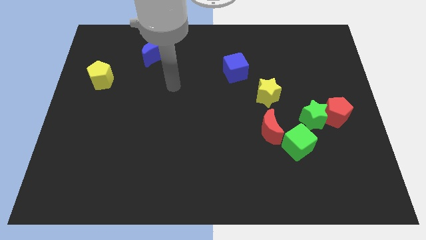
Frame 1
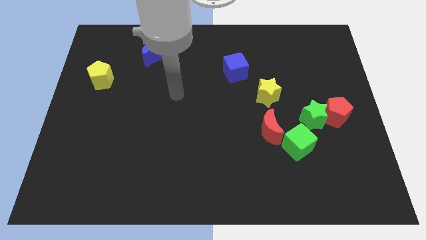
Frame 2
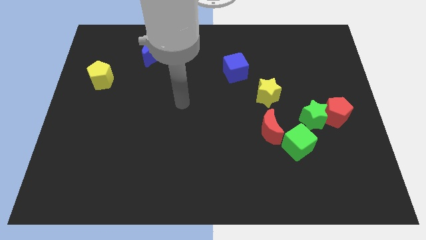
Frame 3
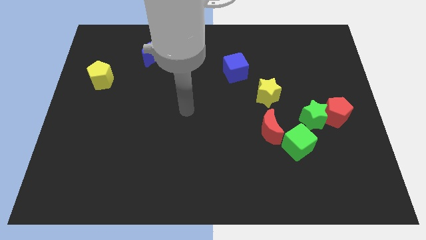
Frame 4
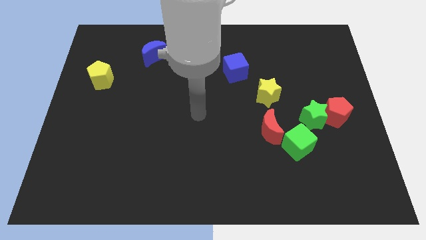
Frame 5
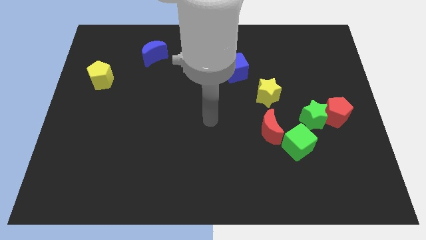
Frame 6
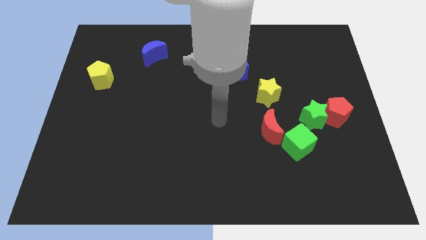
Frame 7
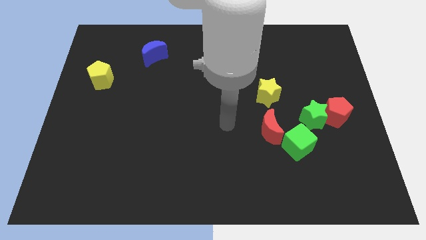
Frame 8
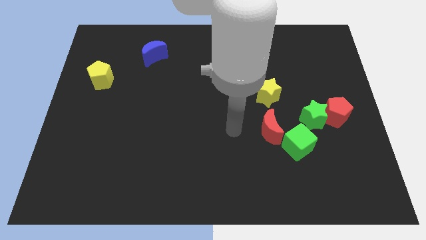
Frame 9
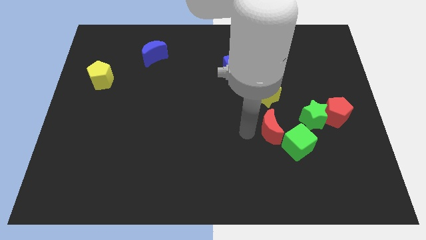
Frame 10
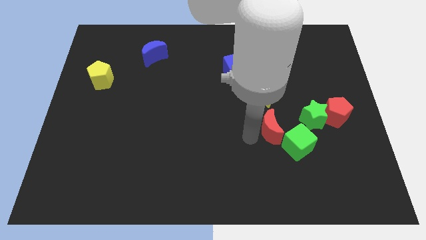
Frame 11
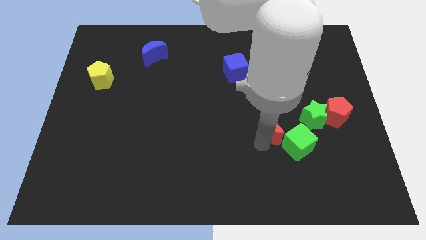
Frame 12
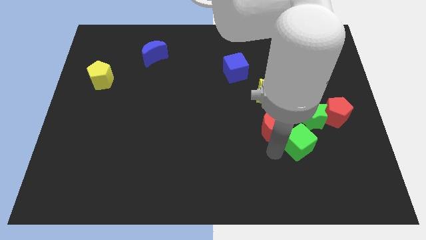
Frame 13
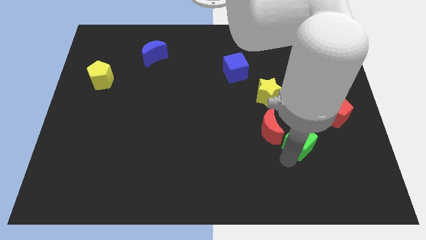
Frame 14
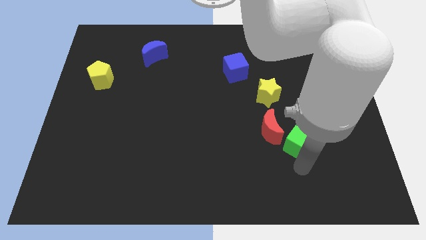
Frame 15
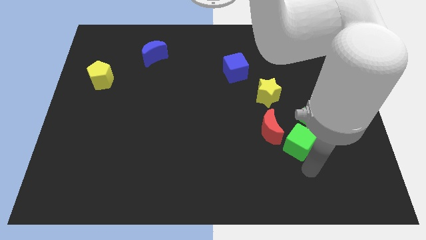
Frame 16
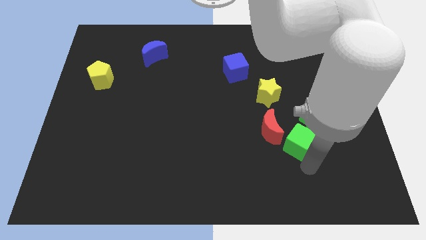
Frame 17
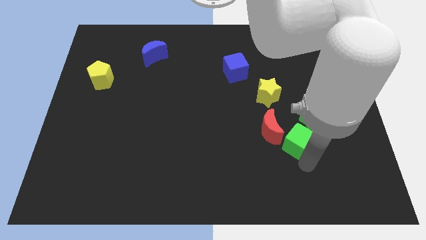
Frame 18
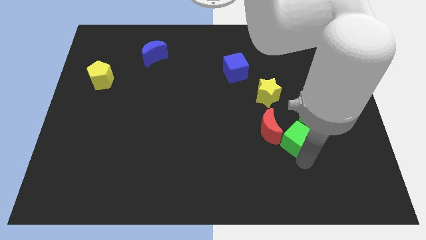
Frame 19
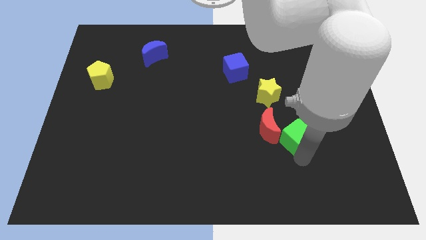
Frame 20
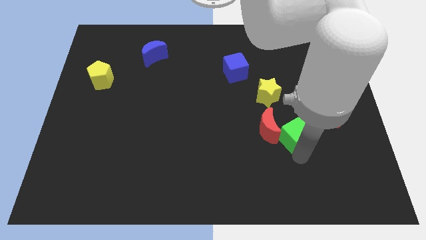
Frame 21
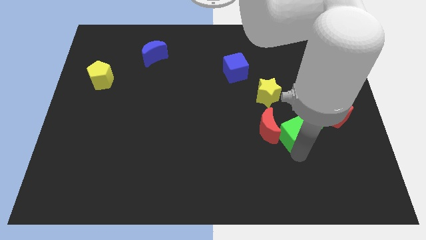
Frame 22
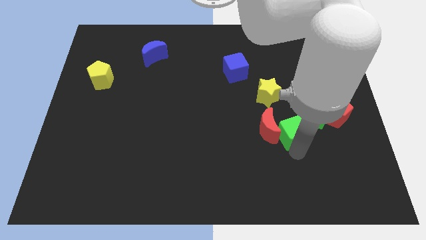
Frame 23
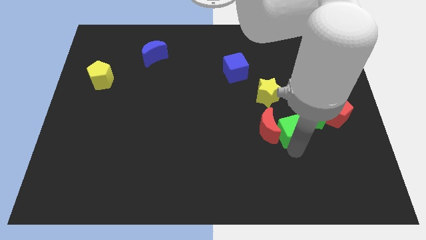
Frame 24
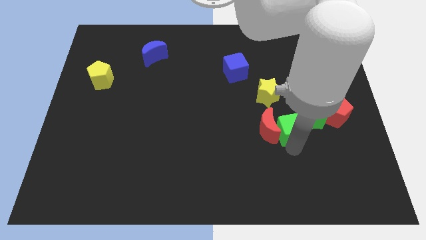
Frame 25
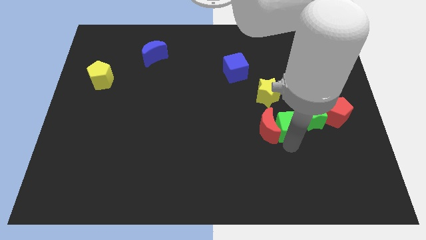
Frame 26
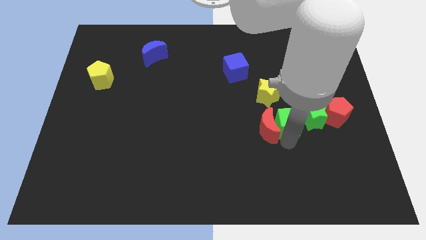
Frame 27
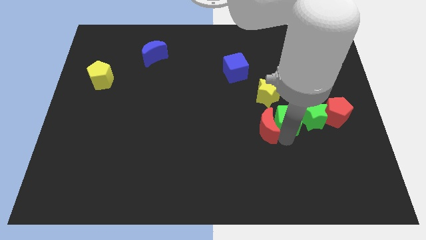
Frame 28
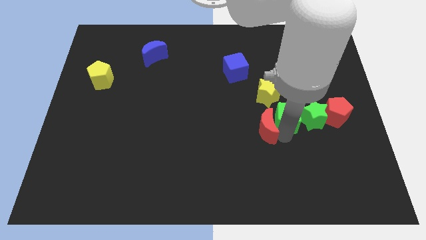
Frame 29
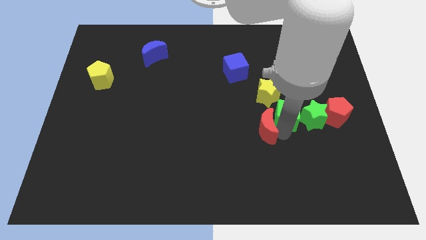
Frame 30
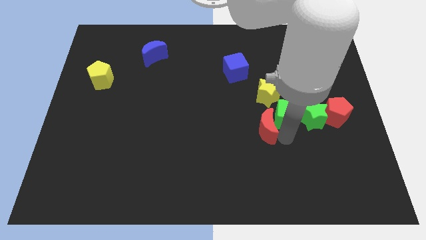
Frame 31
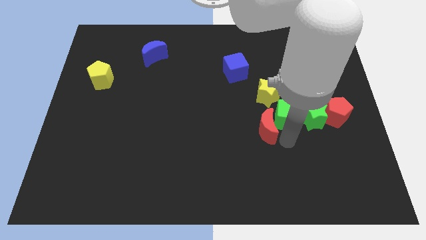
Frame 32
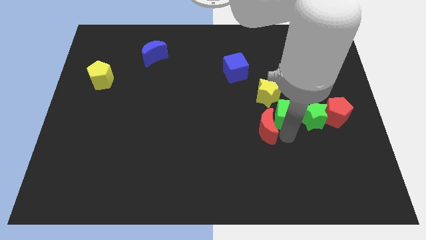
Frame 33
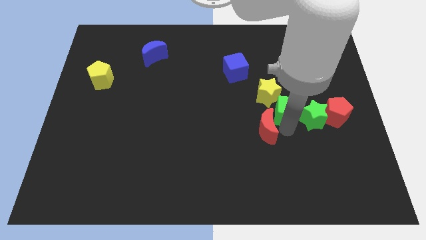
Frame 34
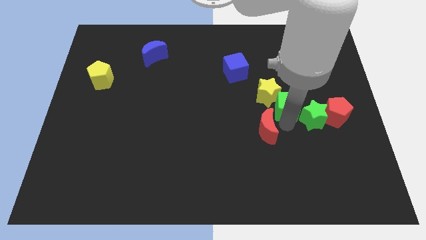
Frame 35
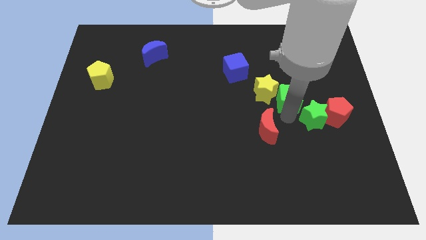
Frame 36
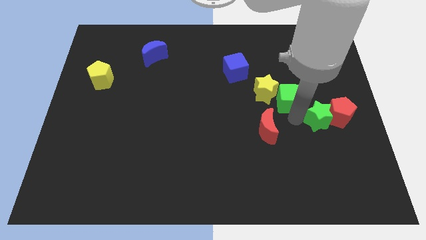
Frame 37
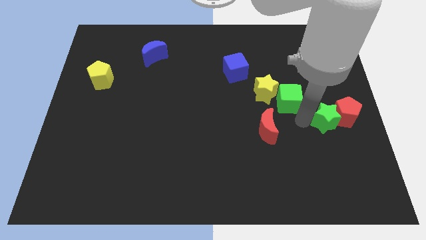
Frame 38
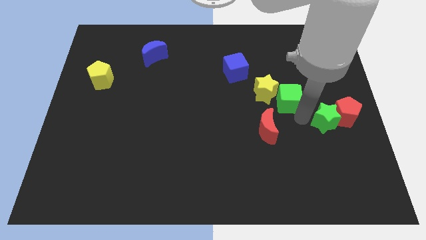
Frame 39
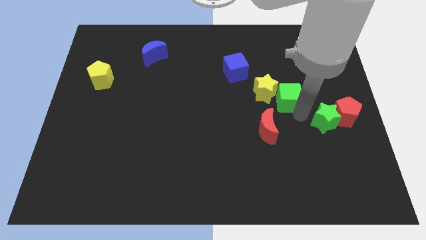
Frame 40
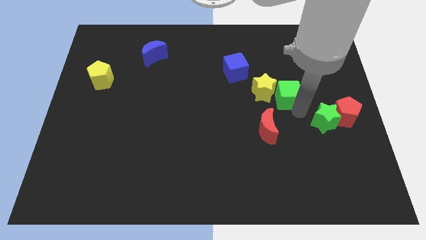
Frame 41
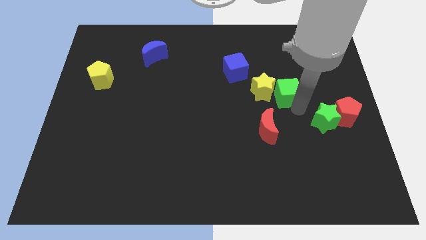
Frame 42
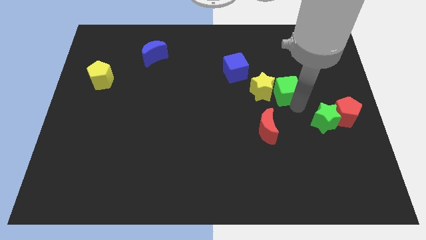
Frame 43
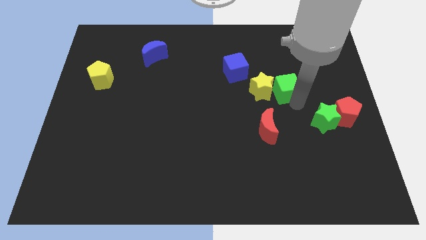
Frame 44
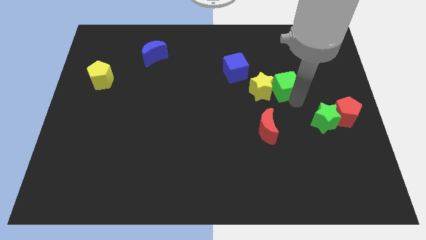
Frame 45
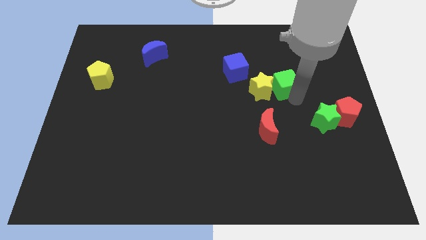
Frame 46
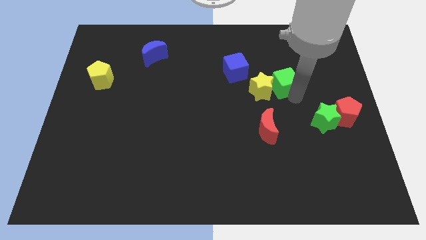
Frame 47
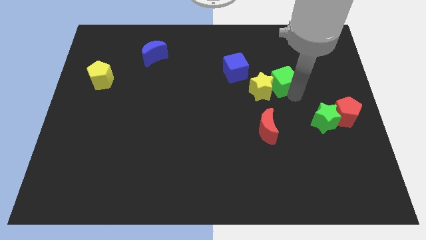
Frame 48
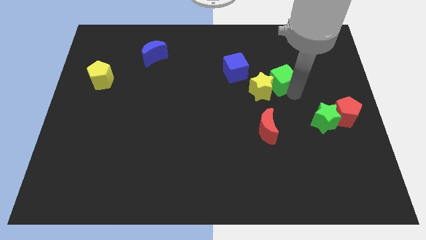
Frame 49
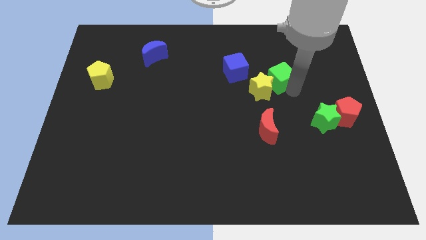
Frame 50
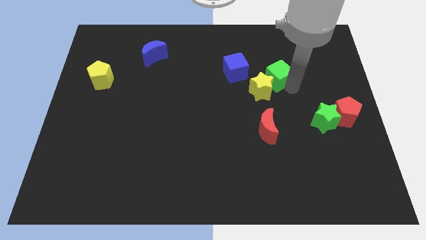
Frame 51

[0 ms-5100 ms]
move the green cube to the top side of the yellow star

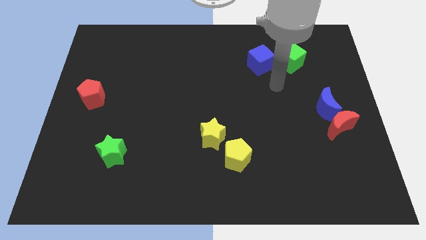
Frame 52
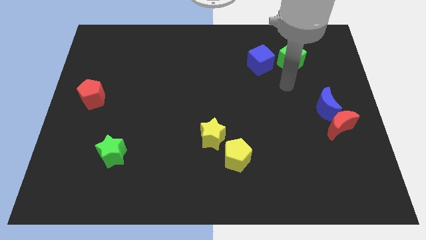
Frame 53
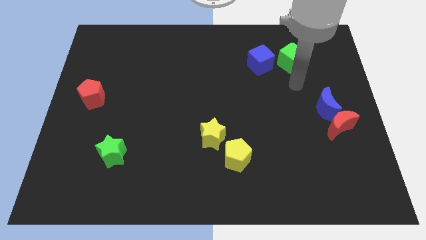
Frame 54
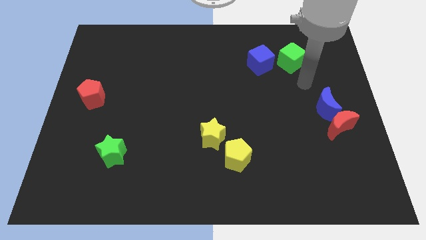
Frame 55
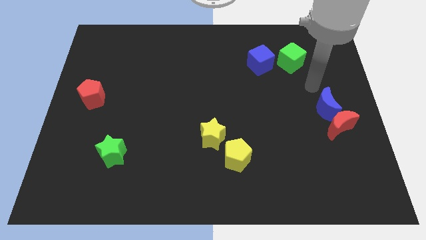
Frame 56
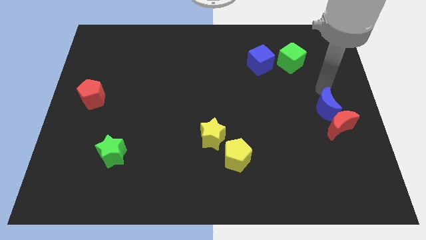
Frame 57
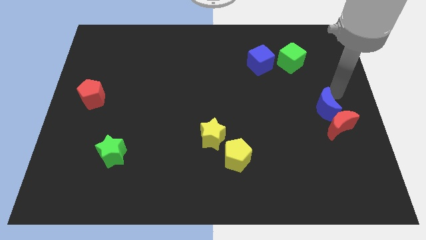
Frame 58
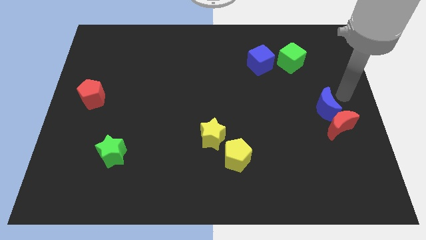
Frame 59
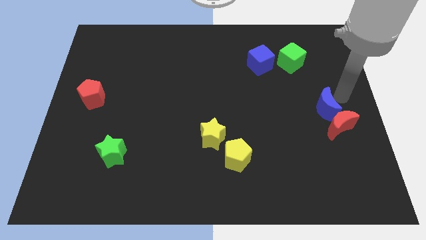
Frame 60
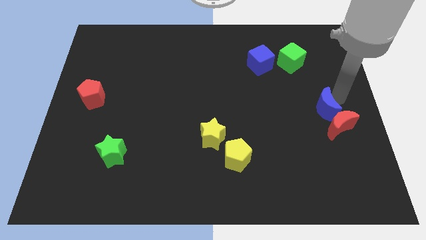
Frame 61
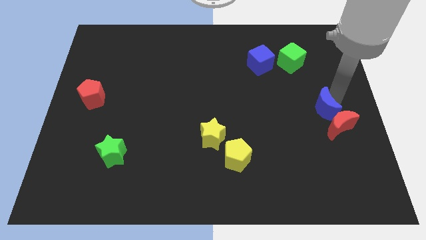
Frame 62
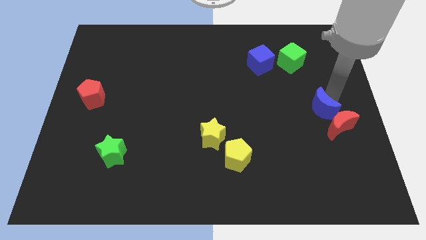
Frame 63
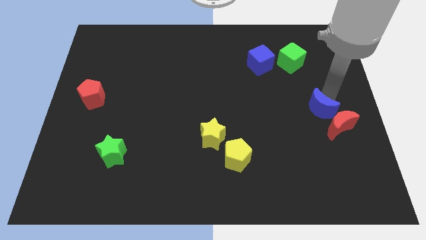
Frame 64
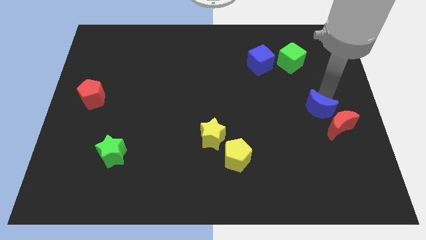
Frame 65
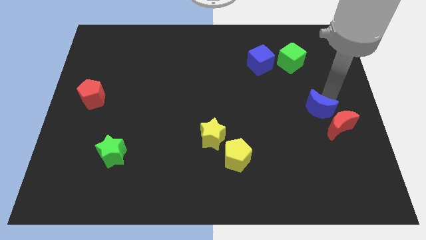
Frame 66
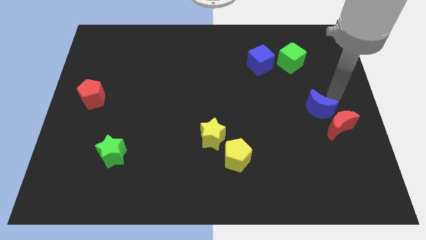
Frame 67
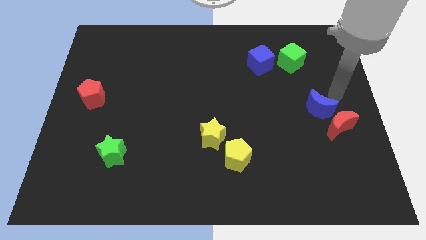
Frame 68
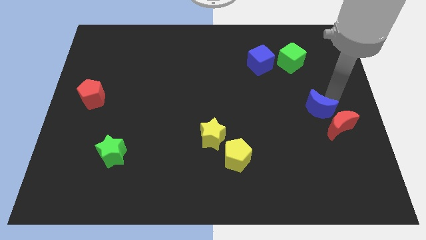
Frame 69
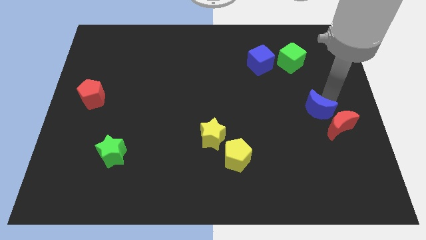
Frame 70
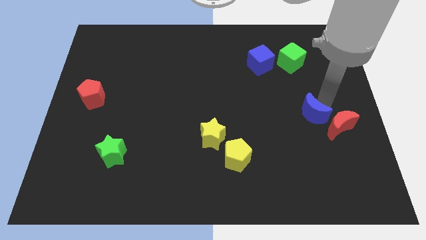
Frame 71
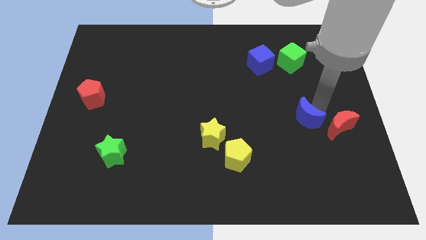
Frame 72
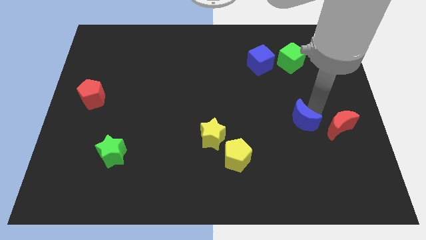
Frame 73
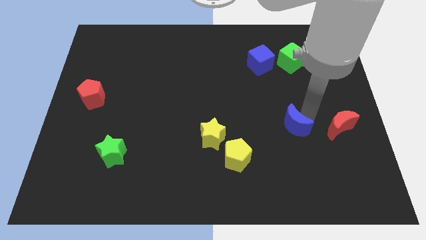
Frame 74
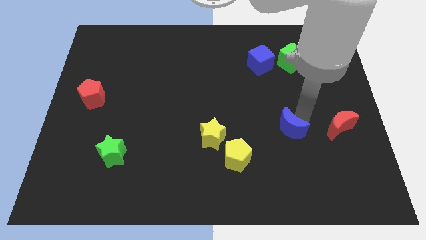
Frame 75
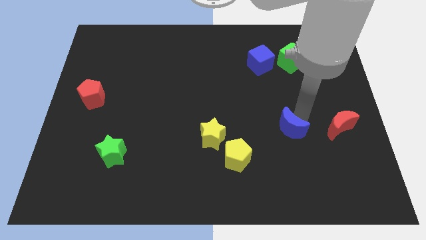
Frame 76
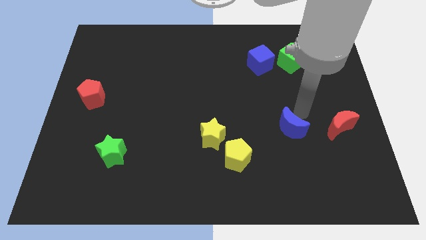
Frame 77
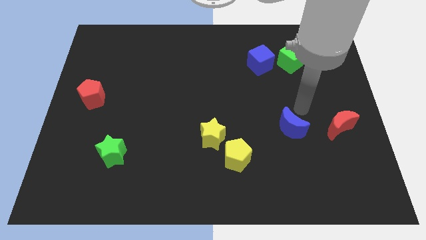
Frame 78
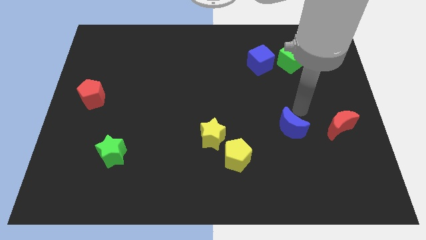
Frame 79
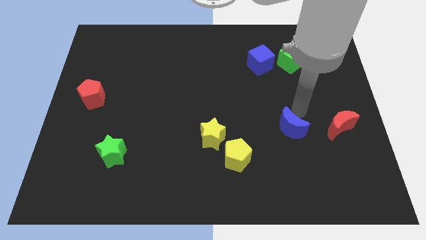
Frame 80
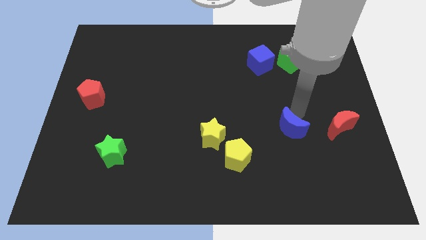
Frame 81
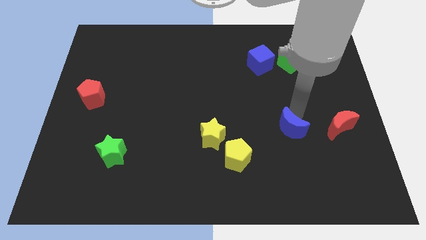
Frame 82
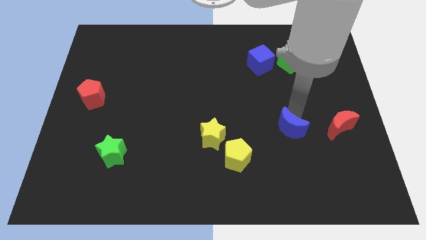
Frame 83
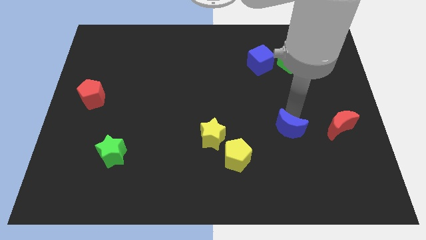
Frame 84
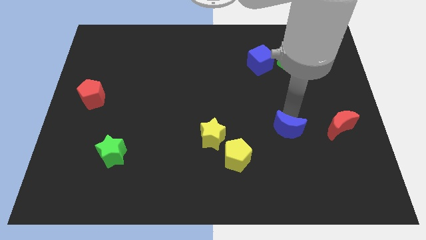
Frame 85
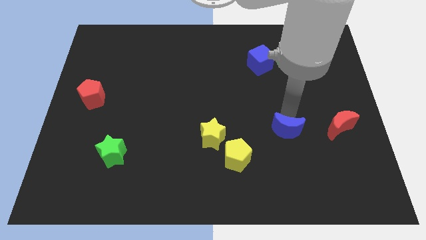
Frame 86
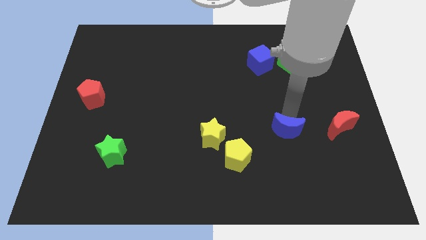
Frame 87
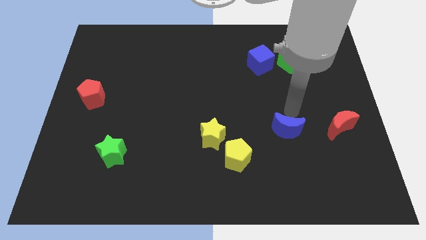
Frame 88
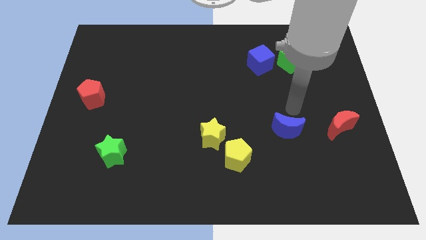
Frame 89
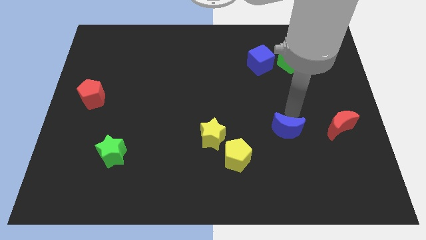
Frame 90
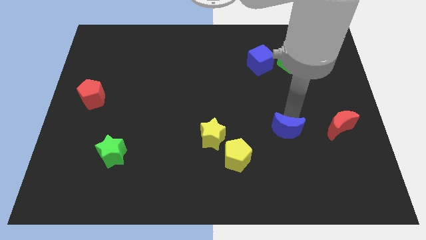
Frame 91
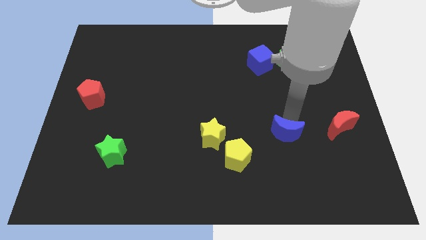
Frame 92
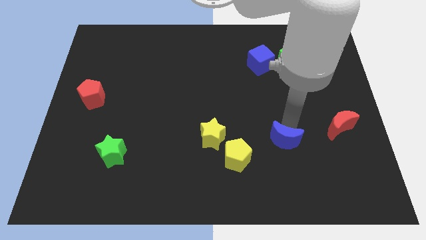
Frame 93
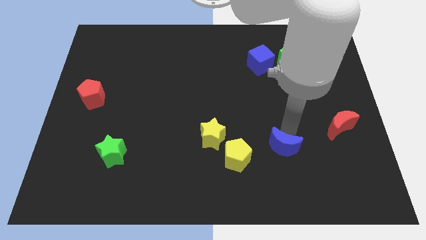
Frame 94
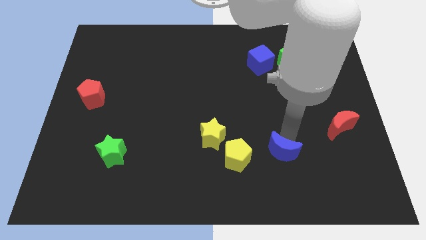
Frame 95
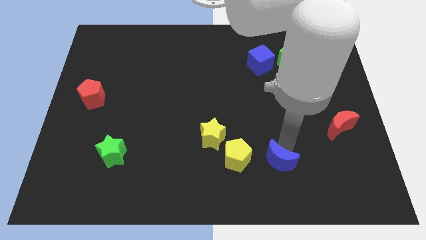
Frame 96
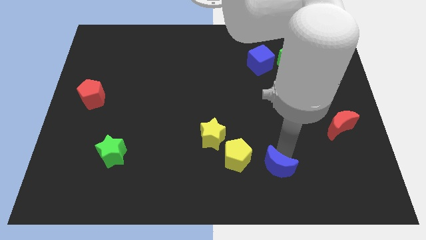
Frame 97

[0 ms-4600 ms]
slide the blue moon to the bottom right side of the yellow pentagon
